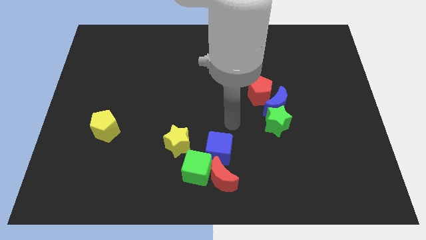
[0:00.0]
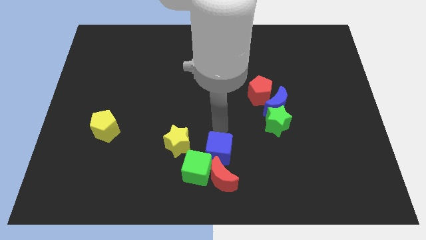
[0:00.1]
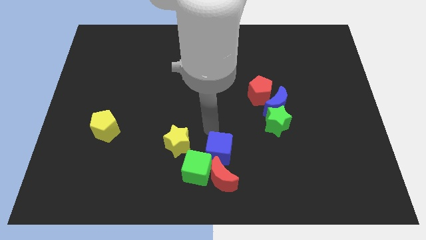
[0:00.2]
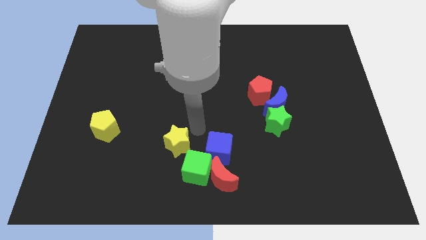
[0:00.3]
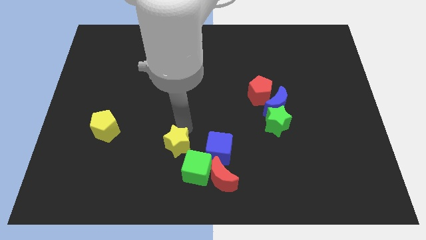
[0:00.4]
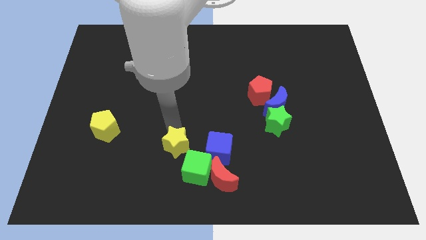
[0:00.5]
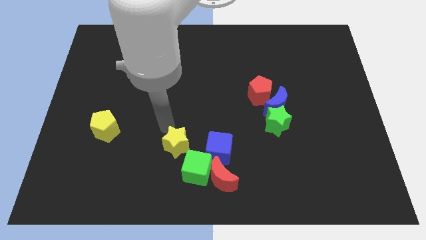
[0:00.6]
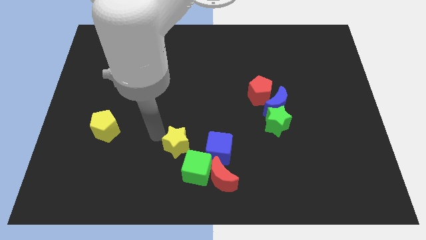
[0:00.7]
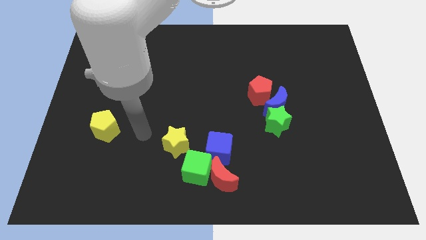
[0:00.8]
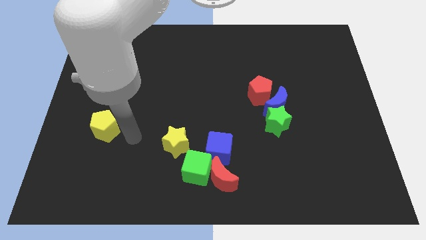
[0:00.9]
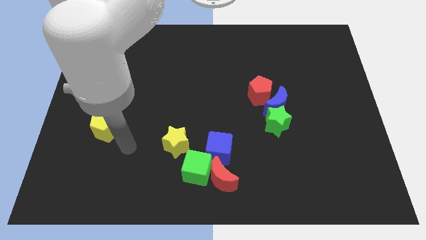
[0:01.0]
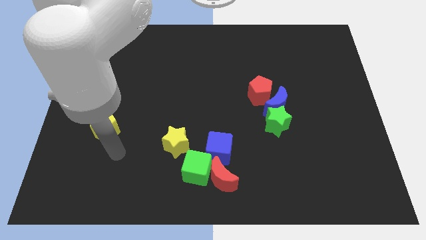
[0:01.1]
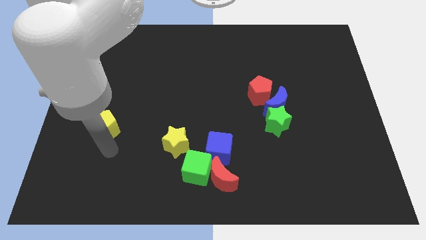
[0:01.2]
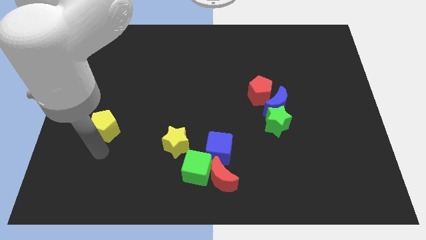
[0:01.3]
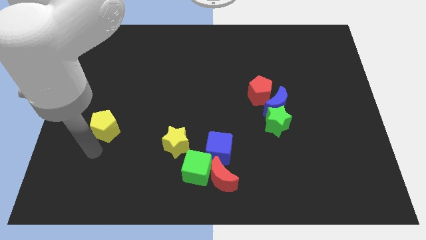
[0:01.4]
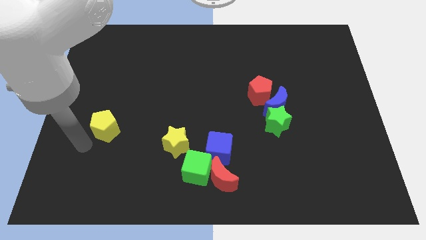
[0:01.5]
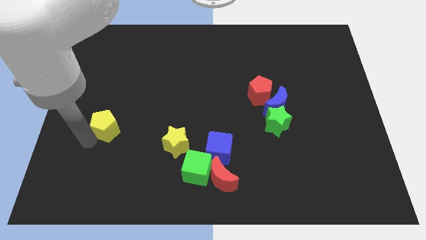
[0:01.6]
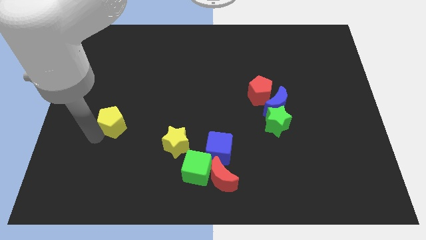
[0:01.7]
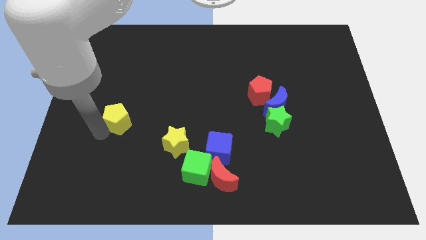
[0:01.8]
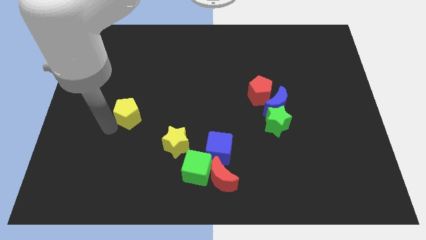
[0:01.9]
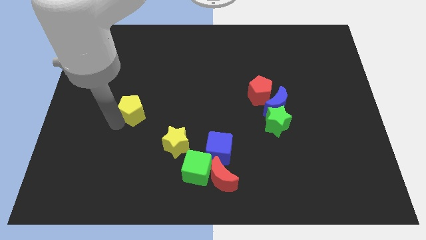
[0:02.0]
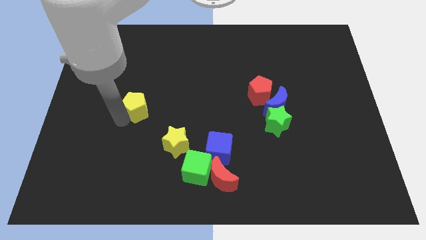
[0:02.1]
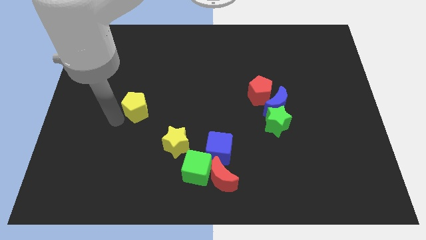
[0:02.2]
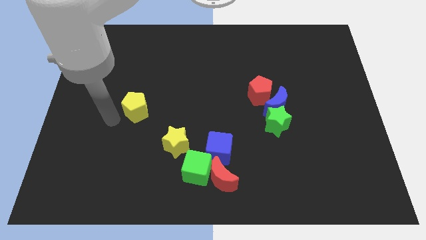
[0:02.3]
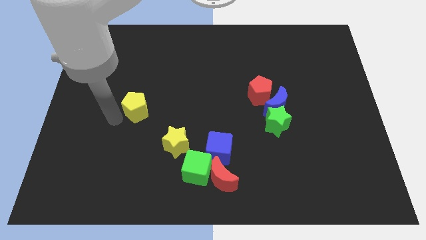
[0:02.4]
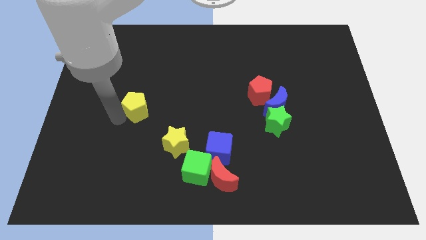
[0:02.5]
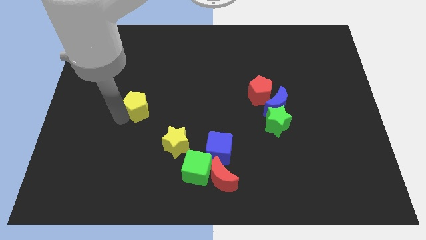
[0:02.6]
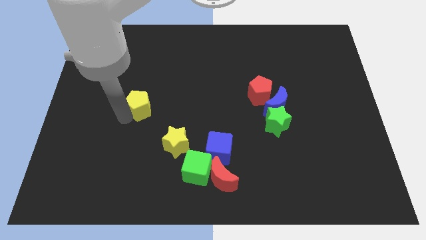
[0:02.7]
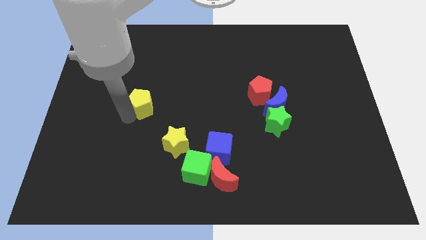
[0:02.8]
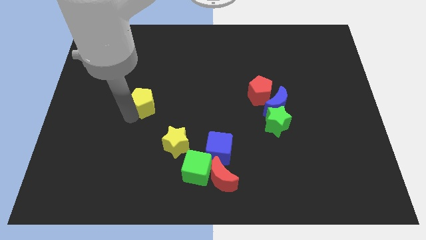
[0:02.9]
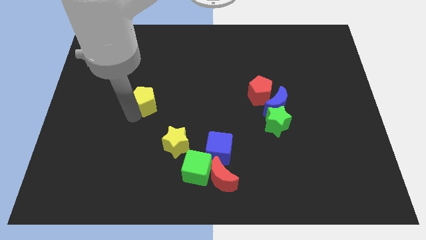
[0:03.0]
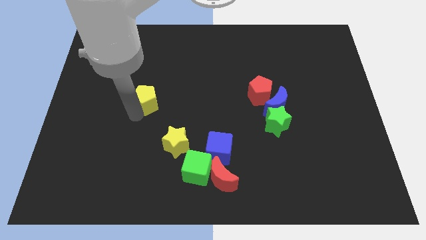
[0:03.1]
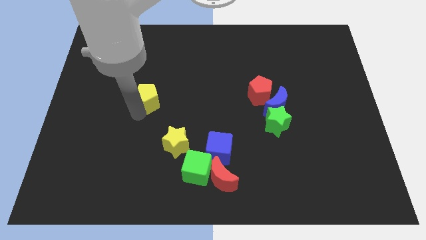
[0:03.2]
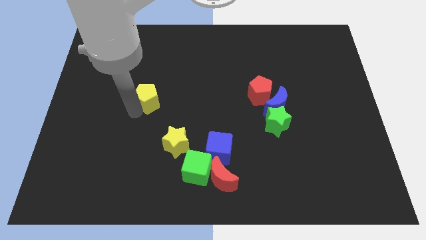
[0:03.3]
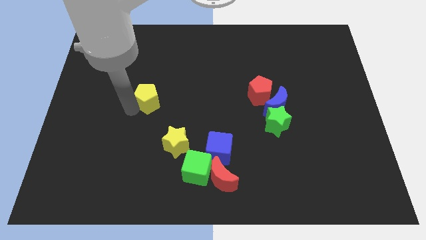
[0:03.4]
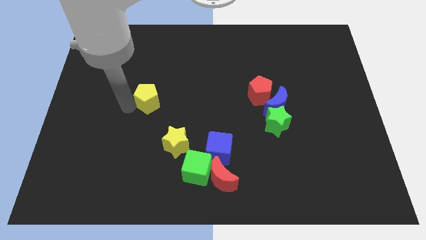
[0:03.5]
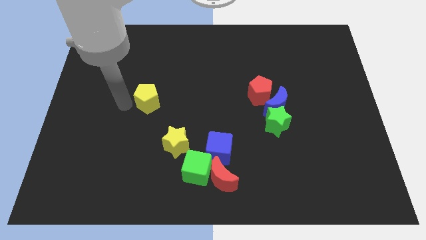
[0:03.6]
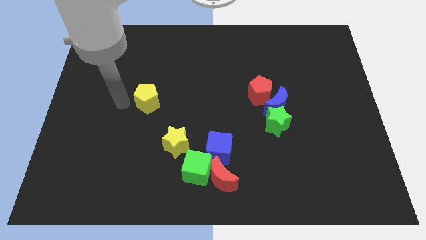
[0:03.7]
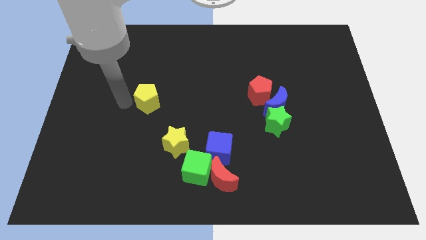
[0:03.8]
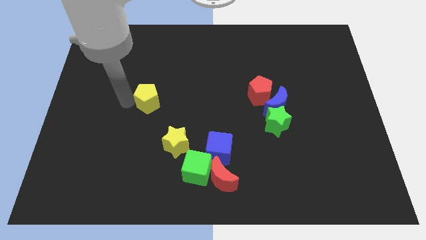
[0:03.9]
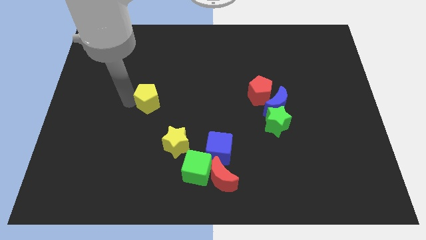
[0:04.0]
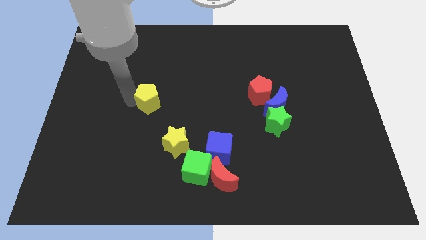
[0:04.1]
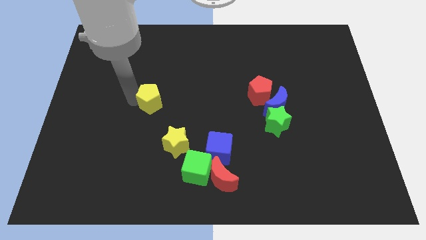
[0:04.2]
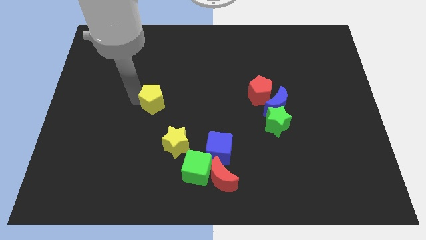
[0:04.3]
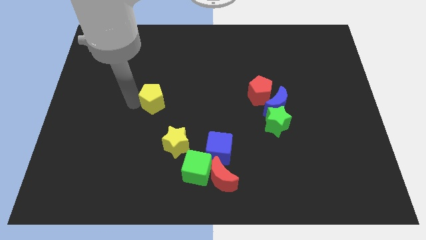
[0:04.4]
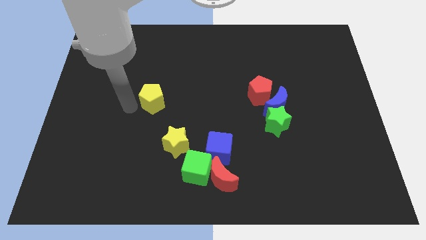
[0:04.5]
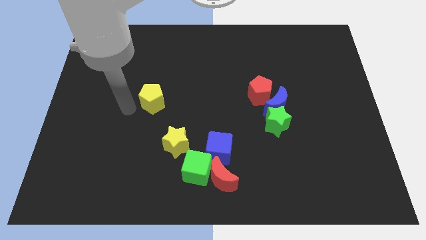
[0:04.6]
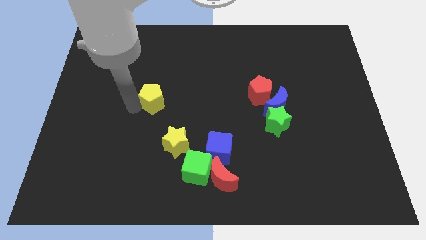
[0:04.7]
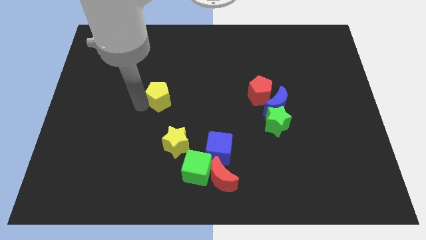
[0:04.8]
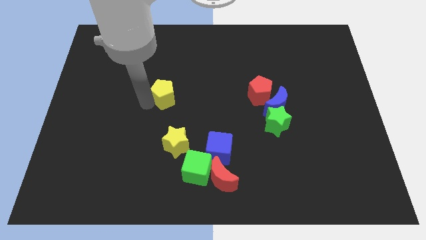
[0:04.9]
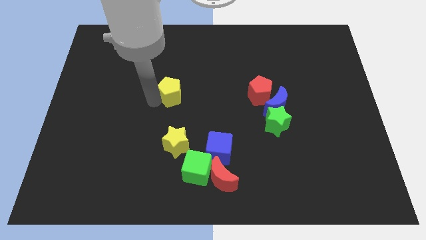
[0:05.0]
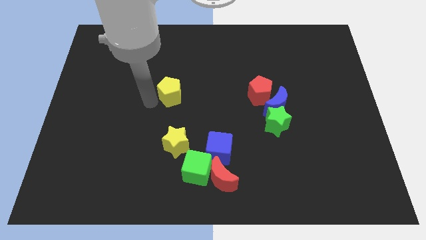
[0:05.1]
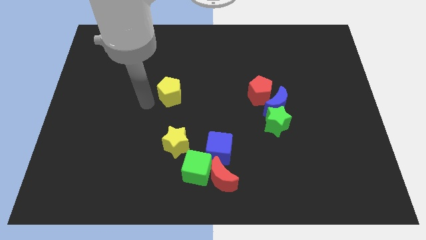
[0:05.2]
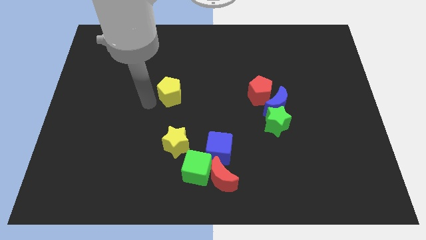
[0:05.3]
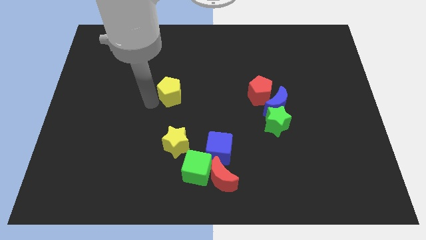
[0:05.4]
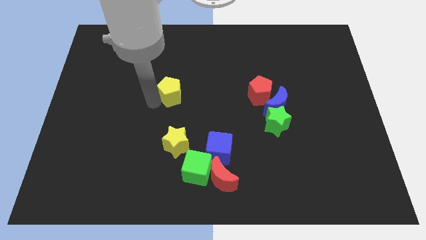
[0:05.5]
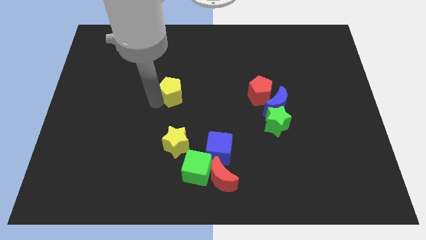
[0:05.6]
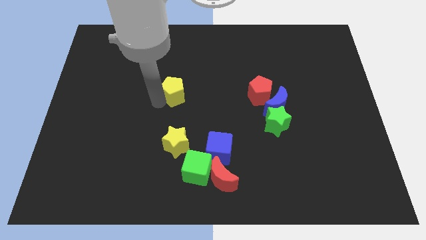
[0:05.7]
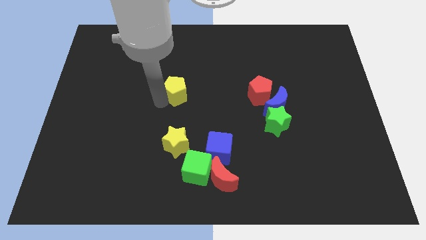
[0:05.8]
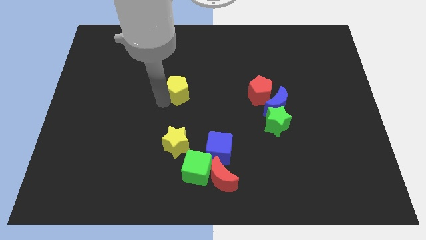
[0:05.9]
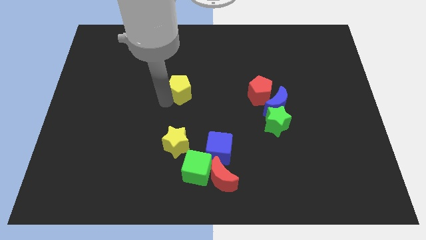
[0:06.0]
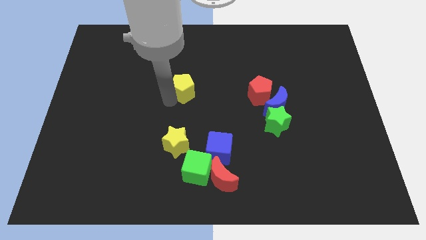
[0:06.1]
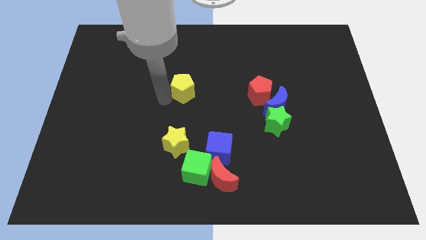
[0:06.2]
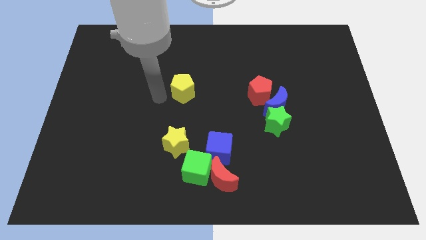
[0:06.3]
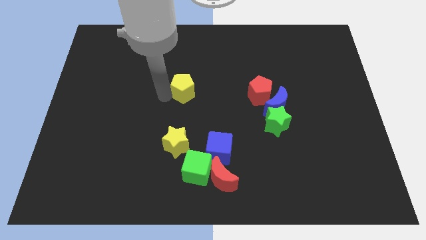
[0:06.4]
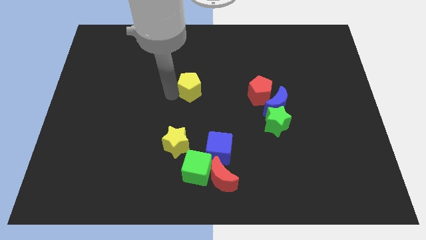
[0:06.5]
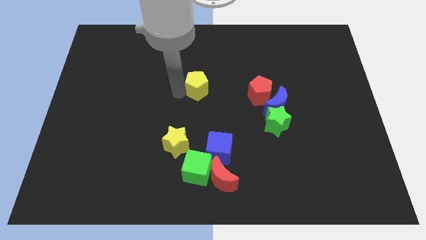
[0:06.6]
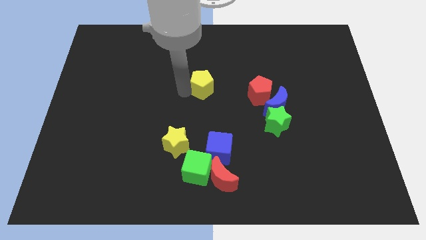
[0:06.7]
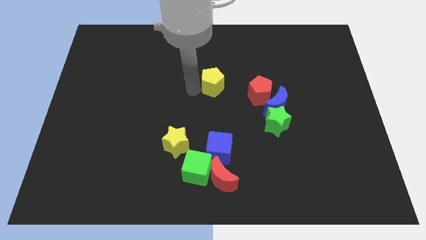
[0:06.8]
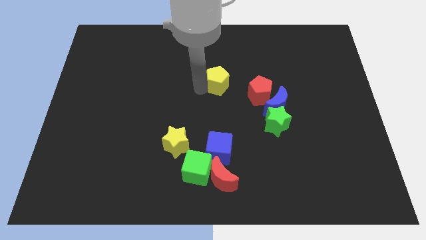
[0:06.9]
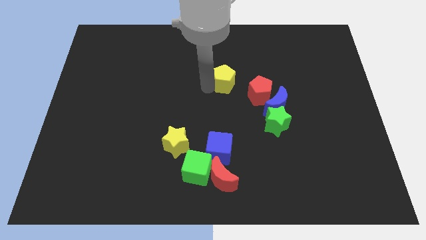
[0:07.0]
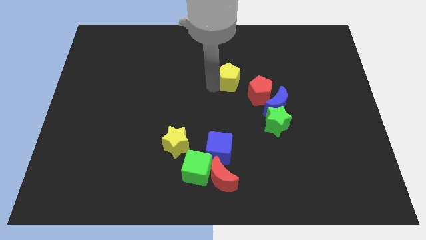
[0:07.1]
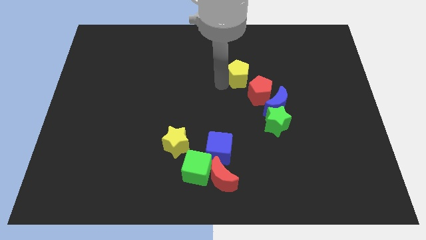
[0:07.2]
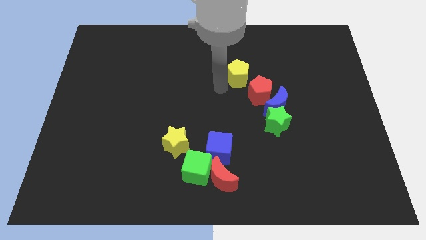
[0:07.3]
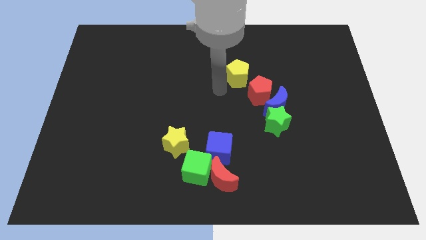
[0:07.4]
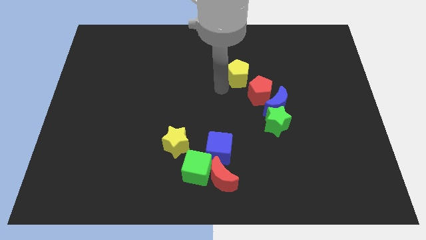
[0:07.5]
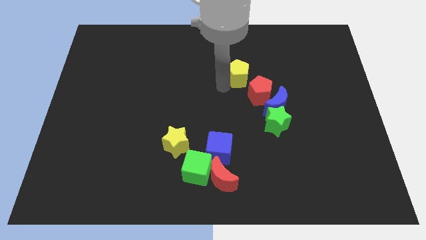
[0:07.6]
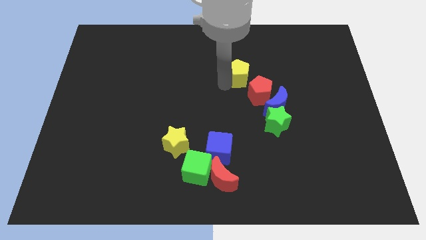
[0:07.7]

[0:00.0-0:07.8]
slide the yellow pentagon to the top side of the red pentagon
